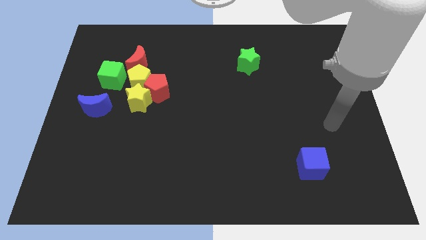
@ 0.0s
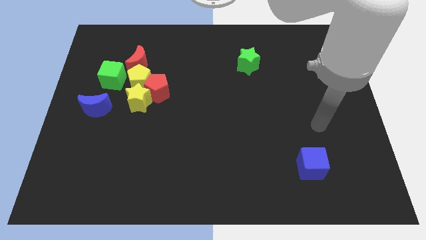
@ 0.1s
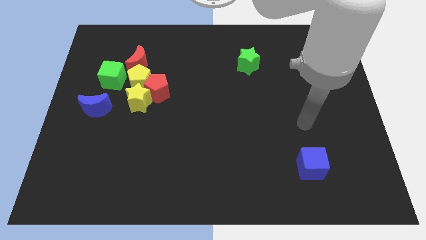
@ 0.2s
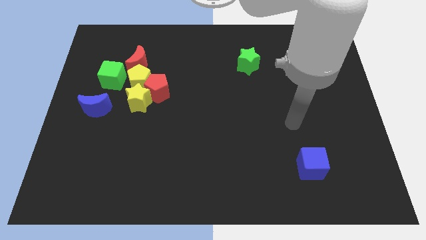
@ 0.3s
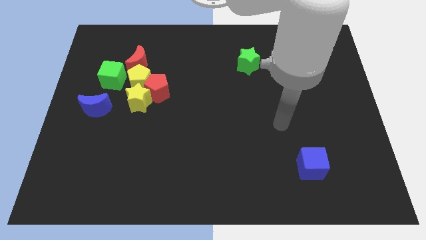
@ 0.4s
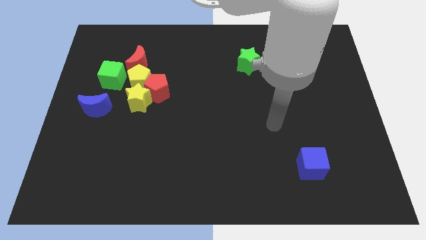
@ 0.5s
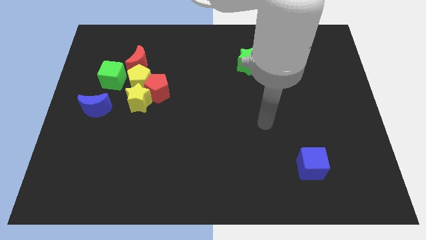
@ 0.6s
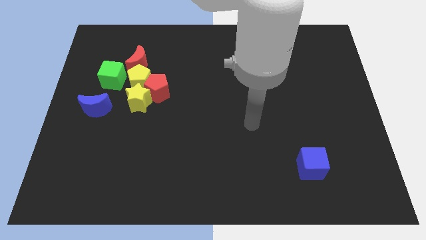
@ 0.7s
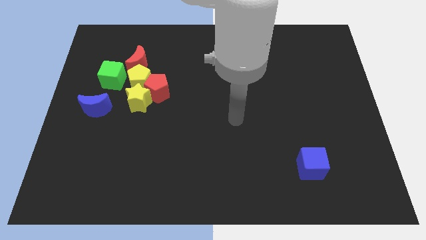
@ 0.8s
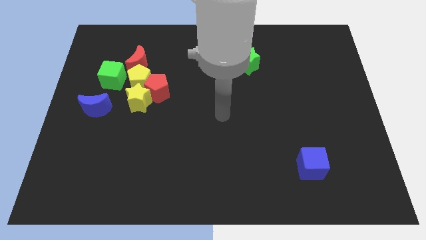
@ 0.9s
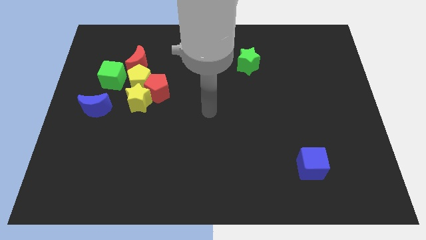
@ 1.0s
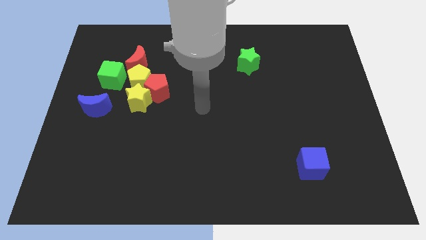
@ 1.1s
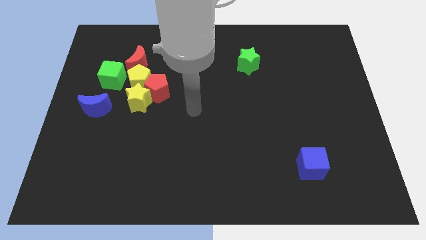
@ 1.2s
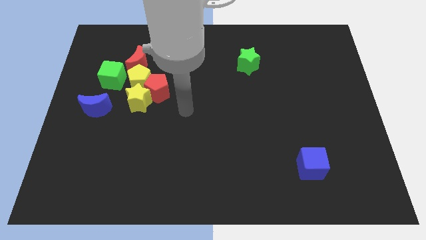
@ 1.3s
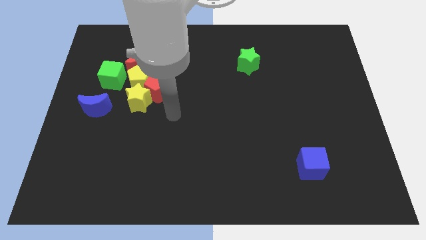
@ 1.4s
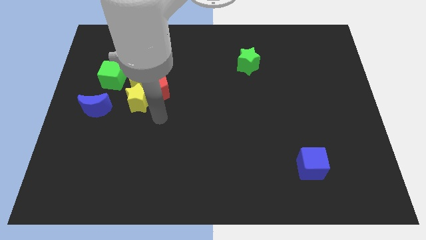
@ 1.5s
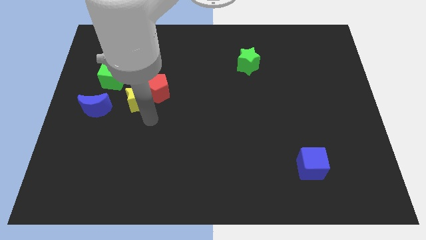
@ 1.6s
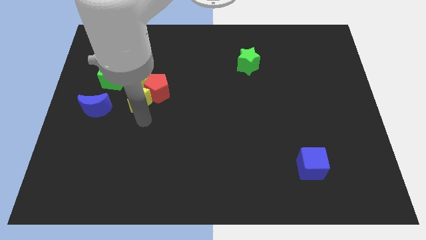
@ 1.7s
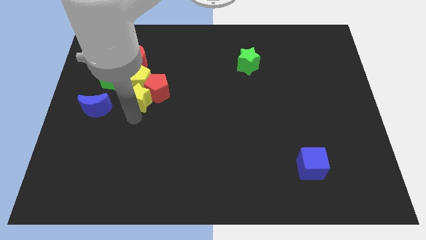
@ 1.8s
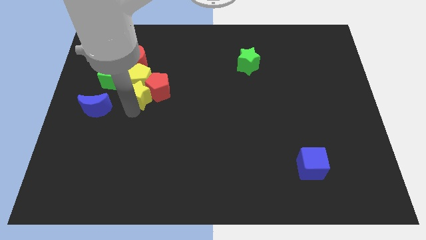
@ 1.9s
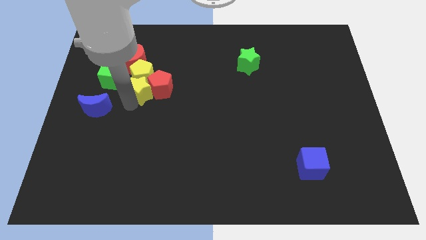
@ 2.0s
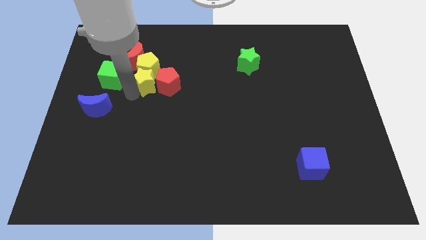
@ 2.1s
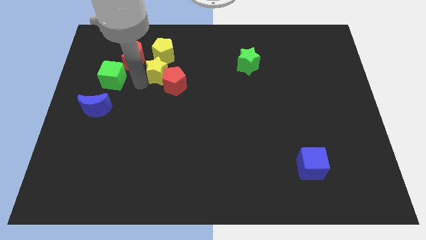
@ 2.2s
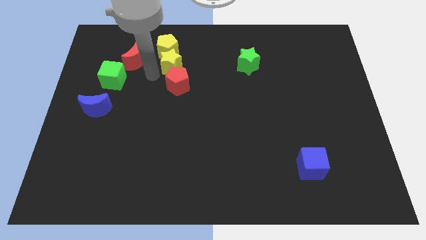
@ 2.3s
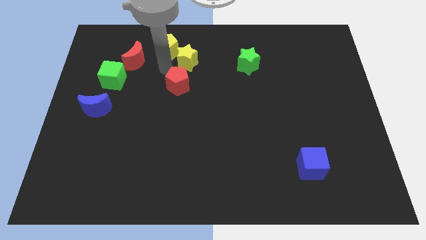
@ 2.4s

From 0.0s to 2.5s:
move the red pentagon away from the yellow star and yellow pentagon

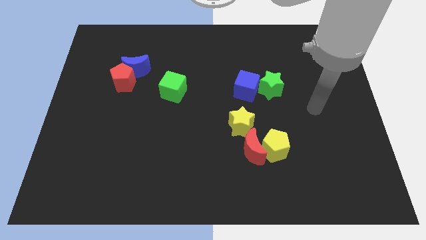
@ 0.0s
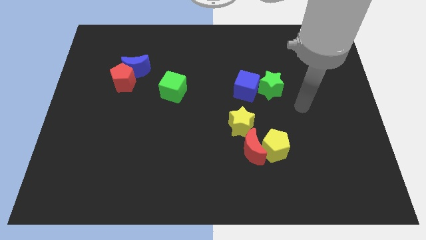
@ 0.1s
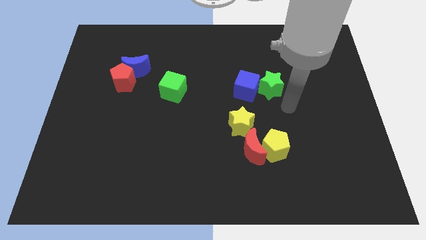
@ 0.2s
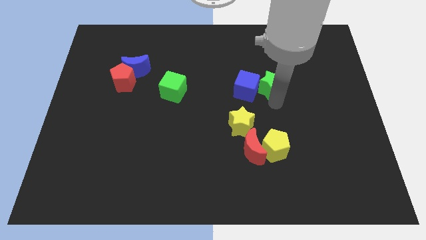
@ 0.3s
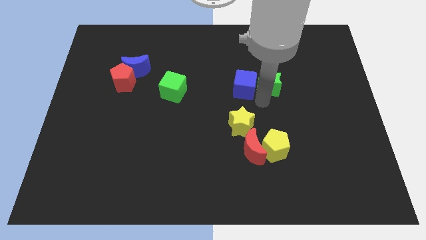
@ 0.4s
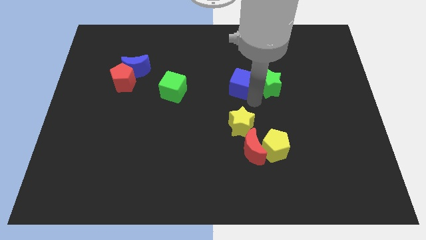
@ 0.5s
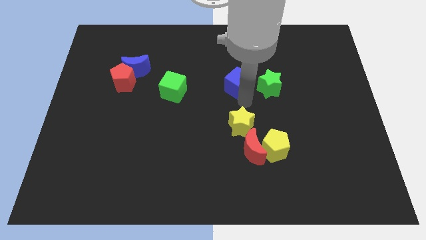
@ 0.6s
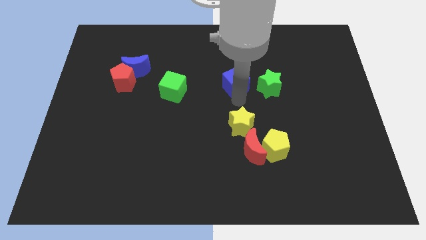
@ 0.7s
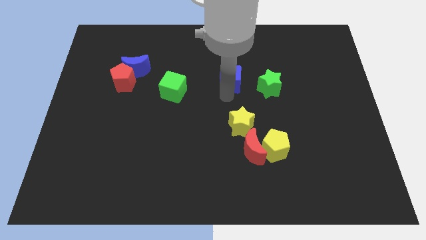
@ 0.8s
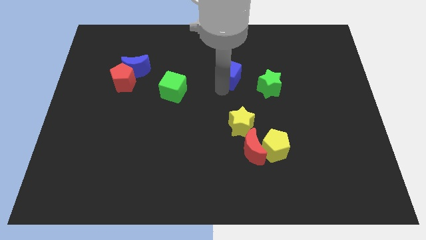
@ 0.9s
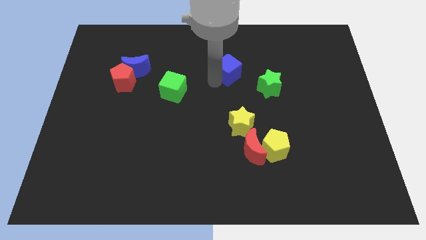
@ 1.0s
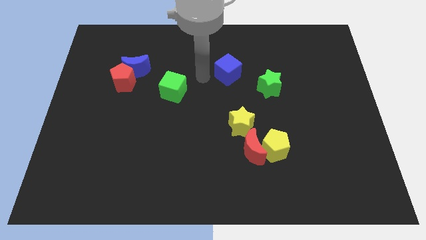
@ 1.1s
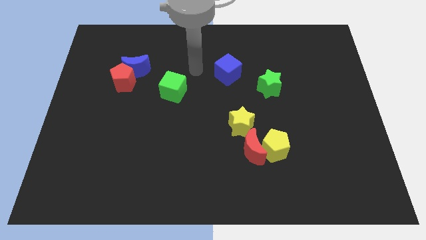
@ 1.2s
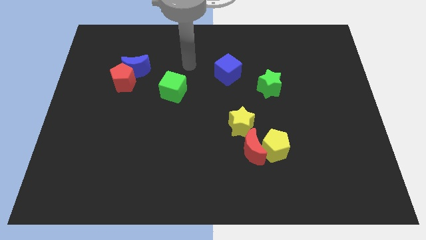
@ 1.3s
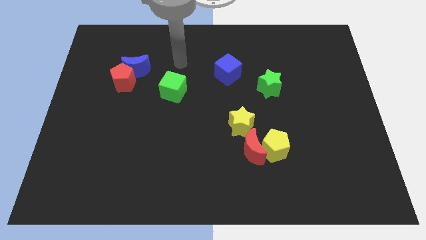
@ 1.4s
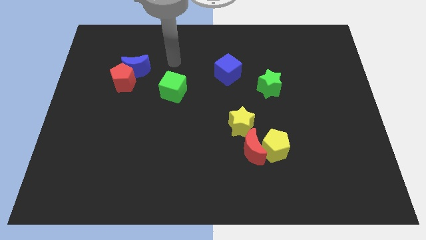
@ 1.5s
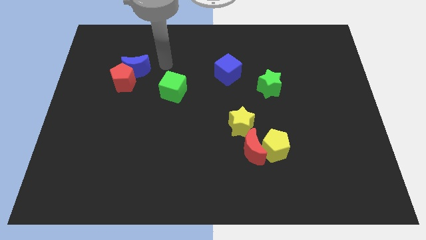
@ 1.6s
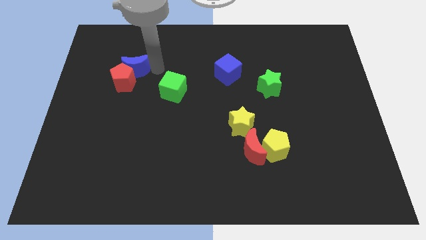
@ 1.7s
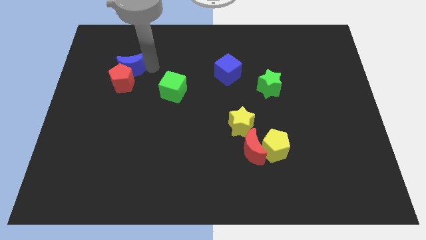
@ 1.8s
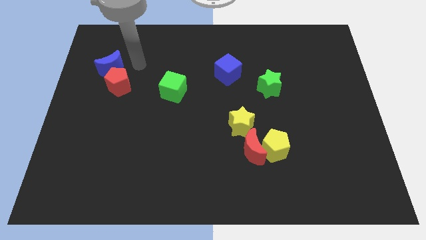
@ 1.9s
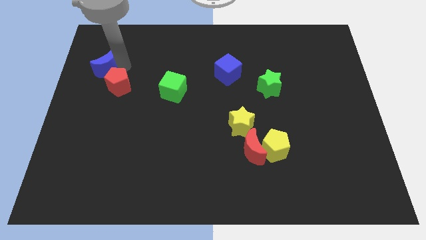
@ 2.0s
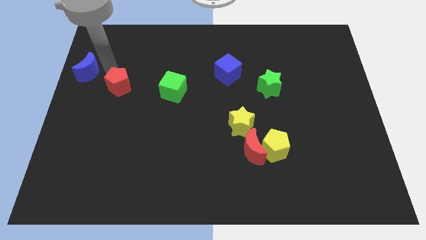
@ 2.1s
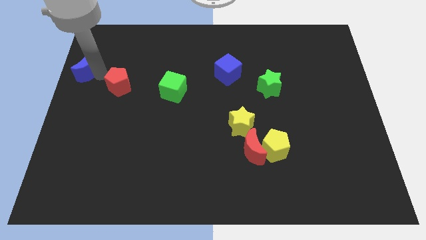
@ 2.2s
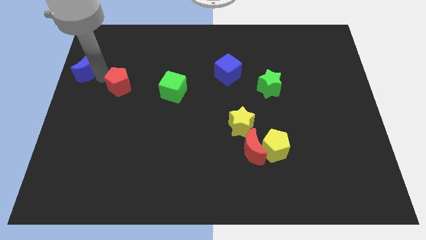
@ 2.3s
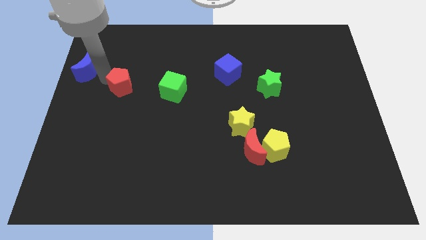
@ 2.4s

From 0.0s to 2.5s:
pull the red pentagon apart from the blue moon

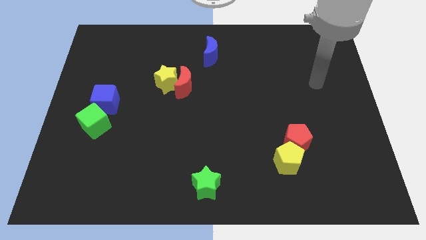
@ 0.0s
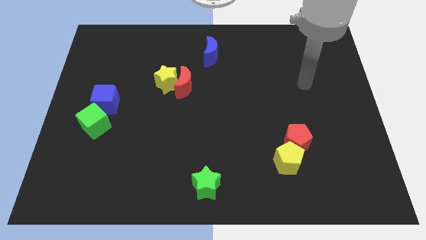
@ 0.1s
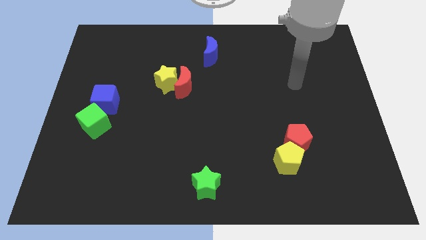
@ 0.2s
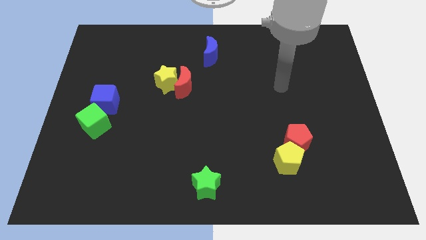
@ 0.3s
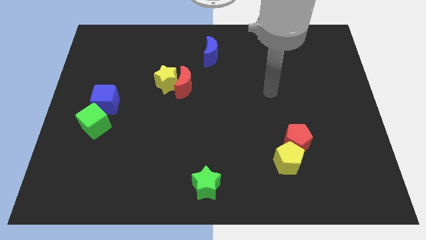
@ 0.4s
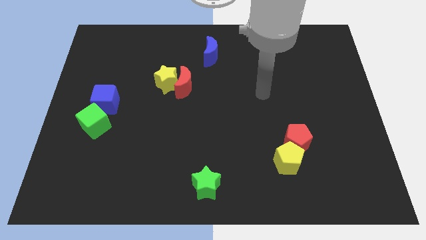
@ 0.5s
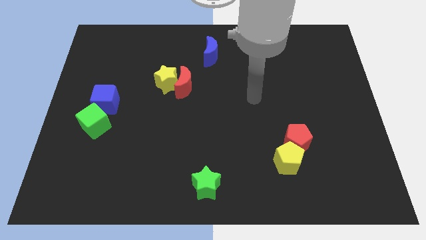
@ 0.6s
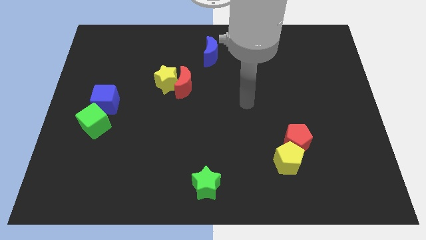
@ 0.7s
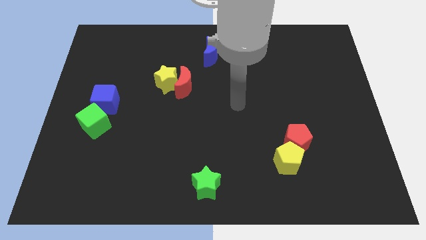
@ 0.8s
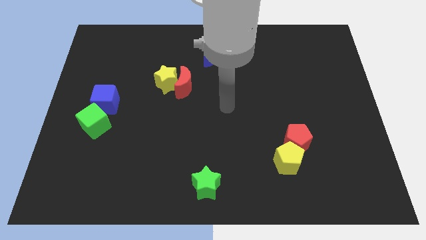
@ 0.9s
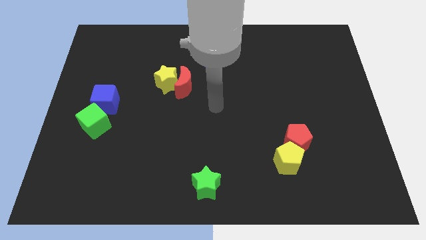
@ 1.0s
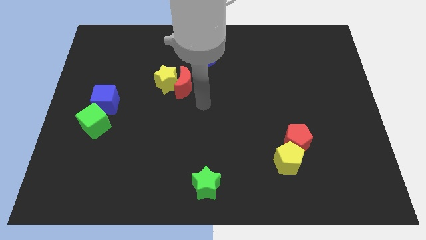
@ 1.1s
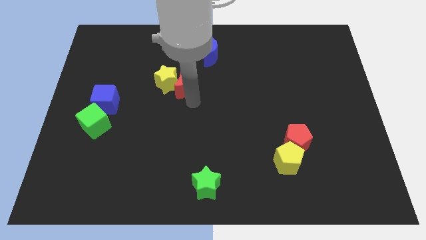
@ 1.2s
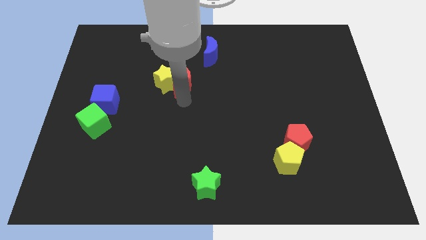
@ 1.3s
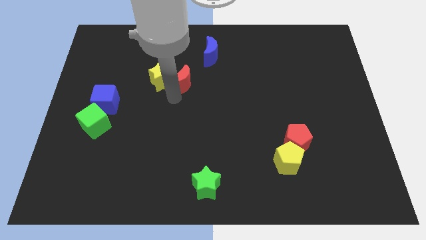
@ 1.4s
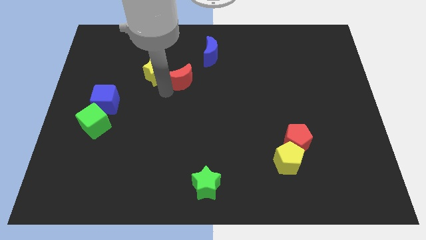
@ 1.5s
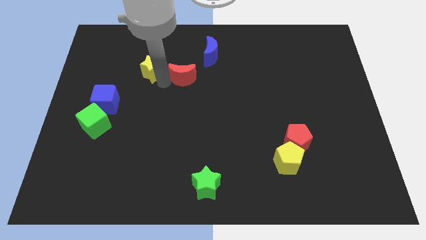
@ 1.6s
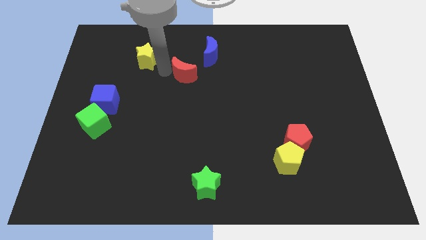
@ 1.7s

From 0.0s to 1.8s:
move the red moon away from the yellow star

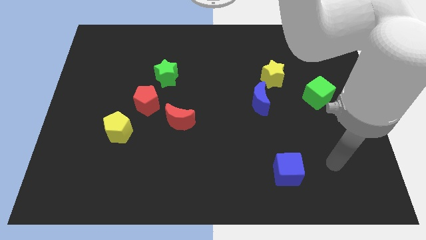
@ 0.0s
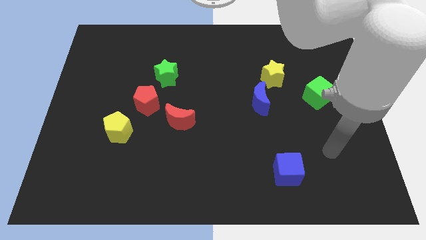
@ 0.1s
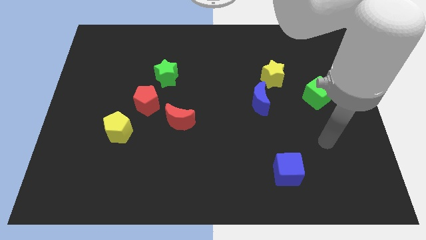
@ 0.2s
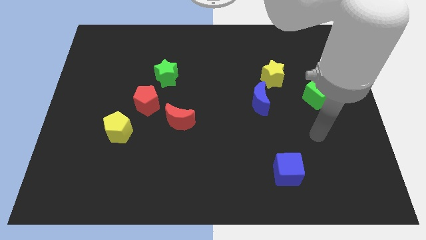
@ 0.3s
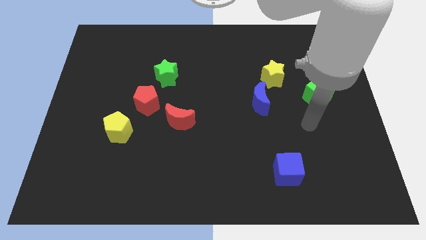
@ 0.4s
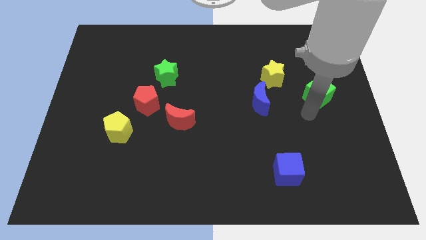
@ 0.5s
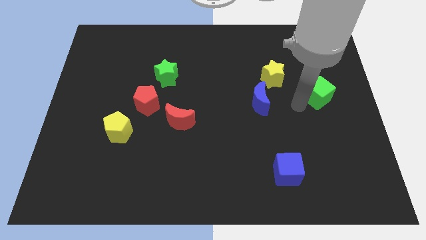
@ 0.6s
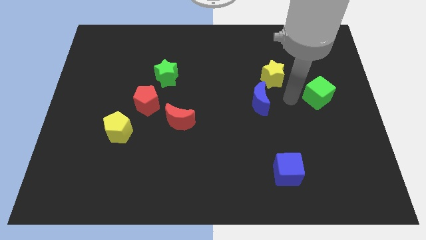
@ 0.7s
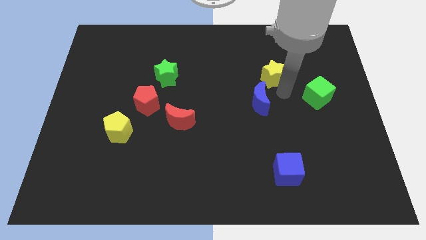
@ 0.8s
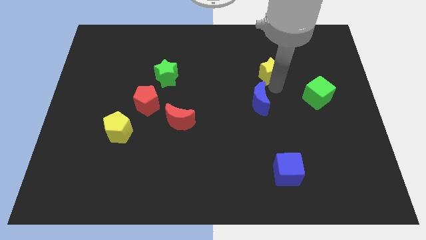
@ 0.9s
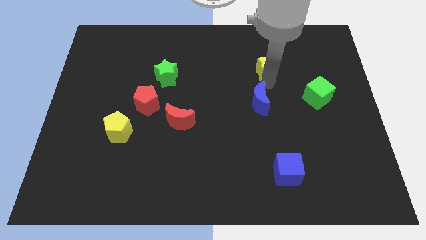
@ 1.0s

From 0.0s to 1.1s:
separate the blue moon from the yellow star

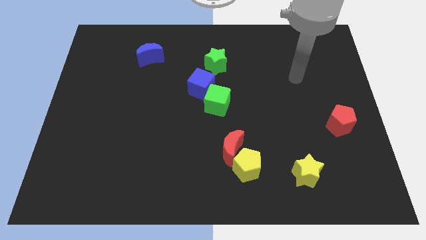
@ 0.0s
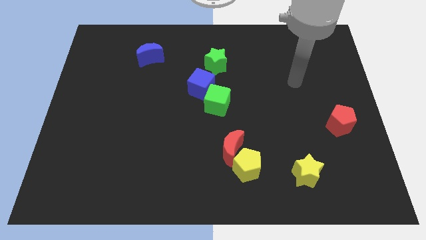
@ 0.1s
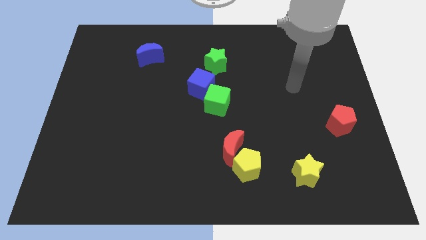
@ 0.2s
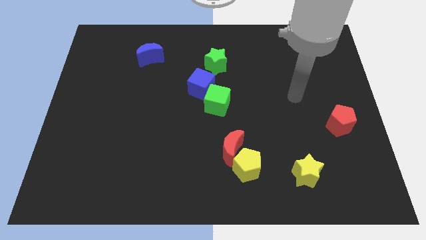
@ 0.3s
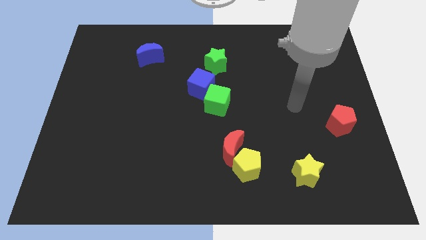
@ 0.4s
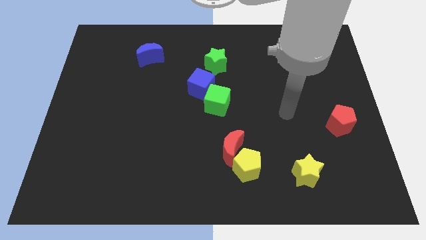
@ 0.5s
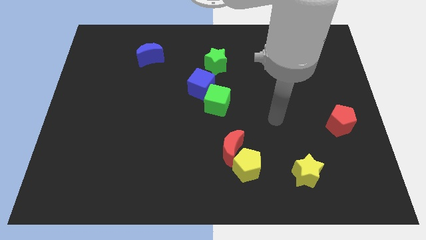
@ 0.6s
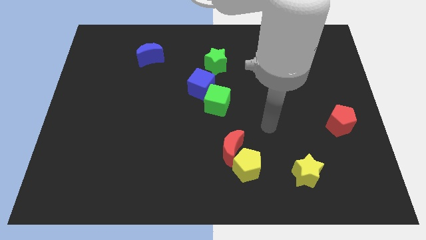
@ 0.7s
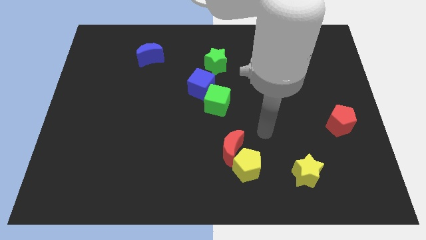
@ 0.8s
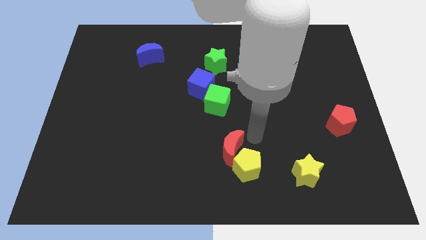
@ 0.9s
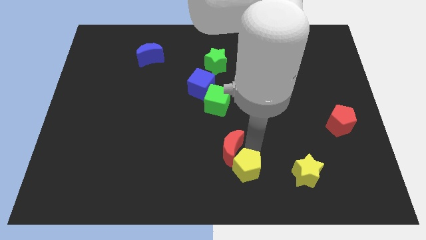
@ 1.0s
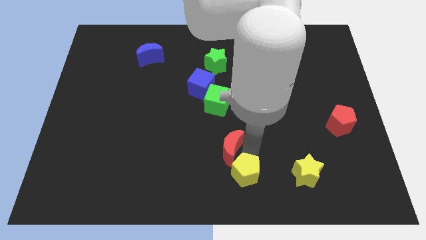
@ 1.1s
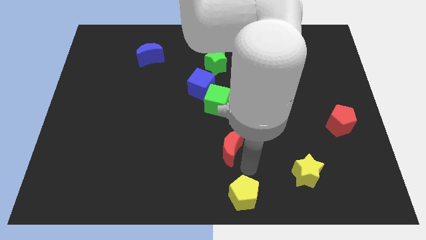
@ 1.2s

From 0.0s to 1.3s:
move the red moon away from the yellow pentagon

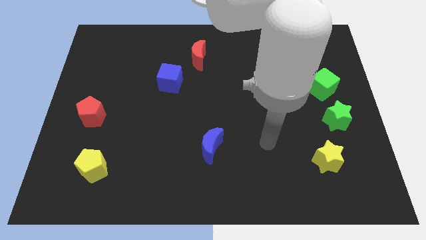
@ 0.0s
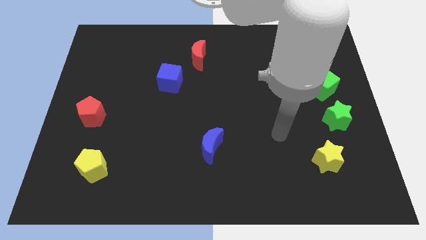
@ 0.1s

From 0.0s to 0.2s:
move the green cube away from the green star
